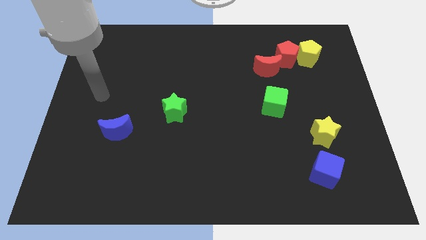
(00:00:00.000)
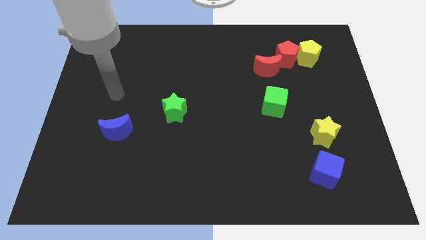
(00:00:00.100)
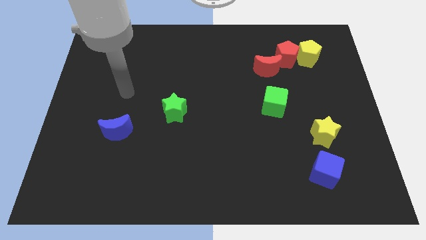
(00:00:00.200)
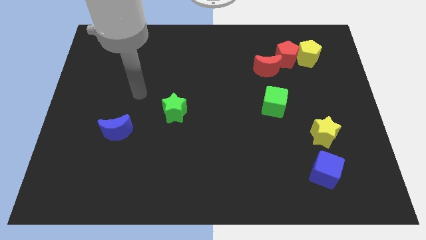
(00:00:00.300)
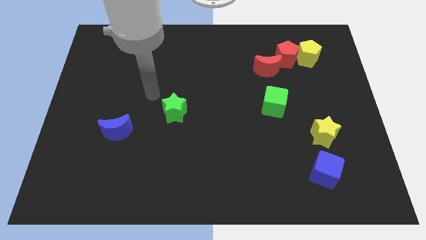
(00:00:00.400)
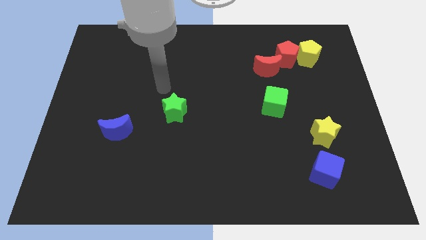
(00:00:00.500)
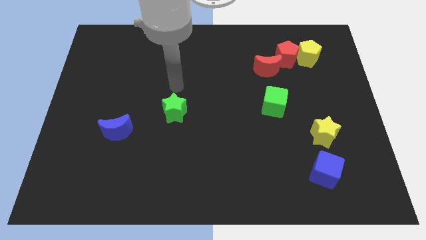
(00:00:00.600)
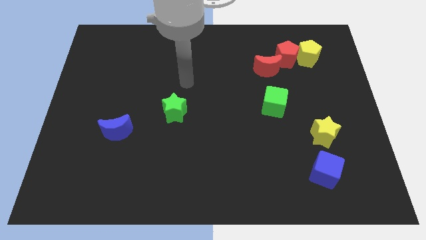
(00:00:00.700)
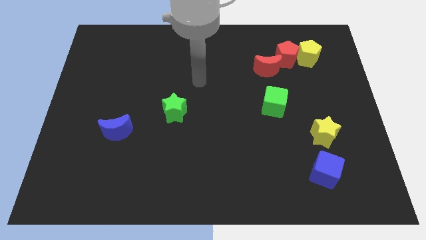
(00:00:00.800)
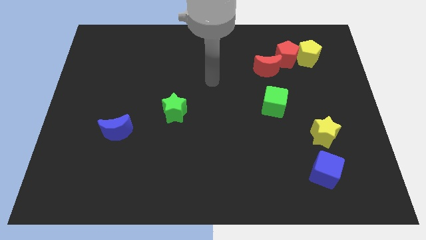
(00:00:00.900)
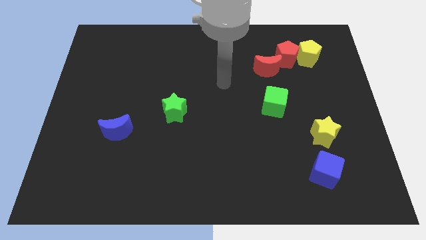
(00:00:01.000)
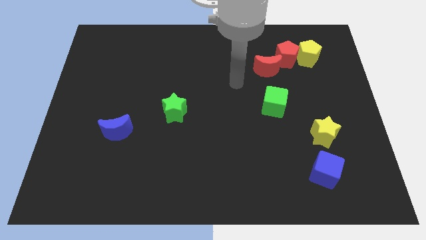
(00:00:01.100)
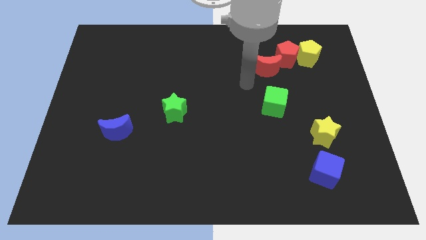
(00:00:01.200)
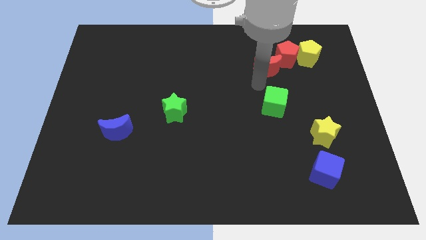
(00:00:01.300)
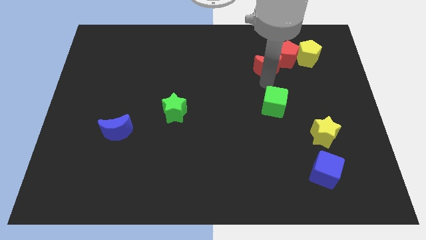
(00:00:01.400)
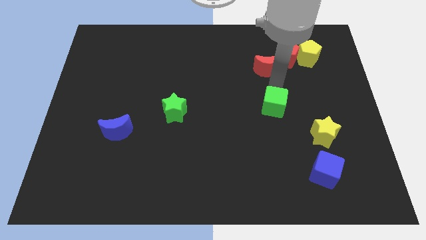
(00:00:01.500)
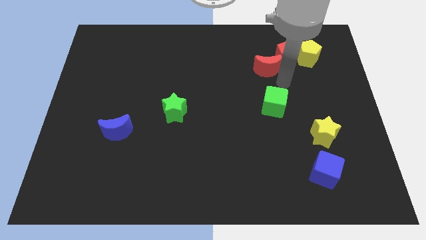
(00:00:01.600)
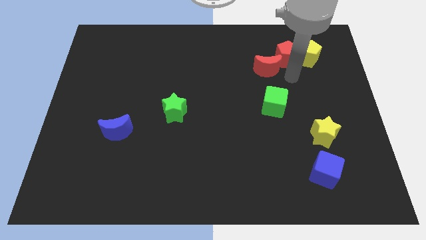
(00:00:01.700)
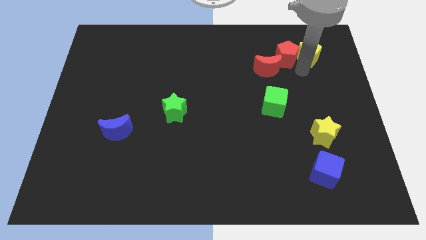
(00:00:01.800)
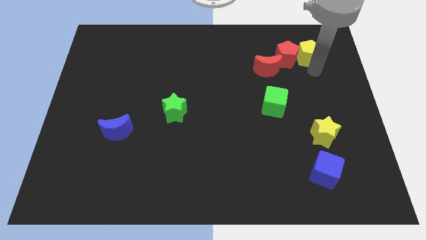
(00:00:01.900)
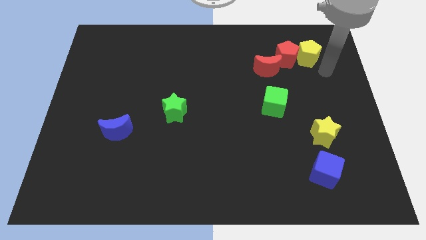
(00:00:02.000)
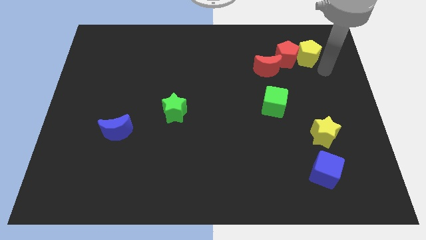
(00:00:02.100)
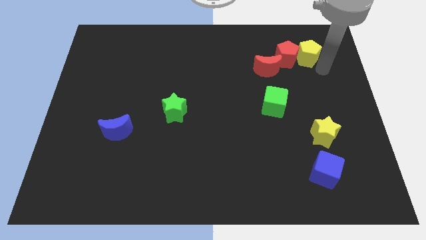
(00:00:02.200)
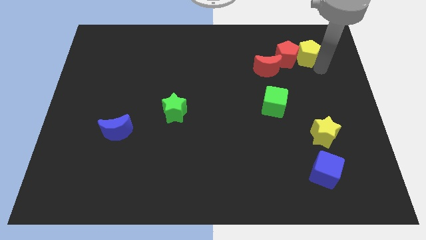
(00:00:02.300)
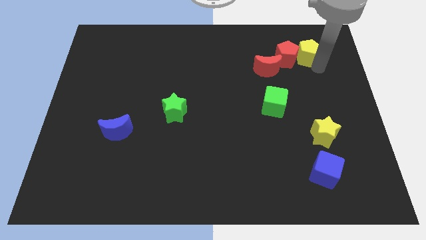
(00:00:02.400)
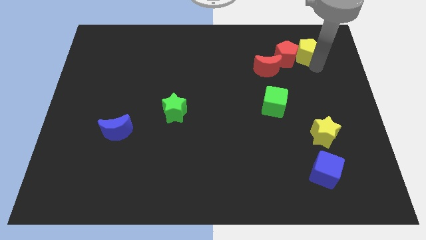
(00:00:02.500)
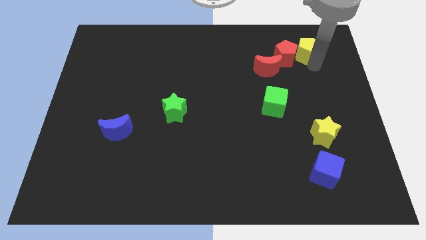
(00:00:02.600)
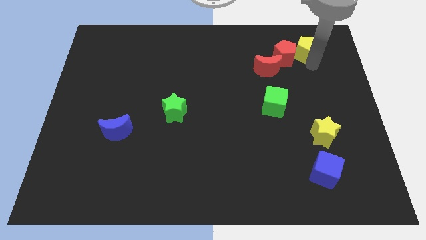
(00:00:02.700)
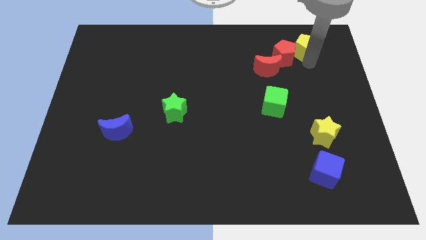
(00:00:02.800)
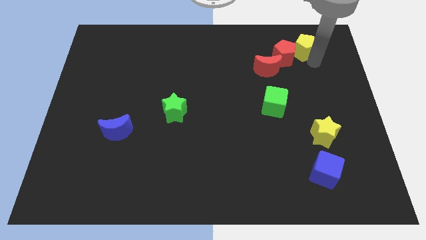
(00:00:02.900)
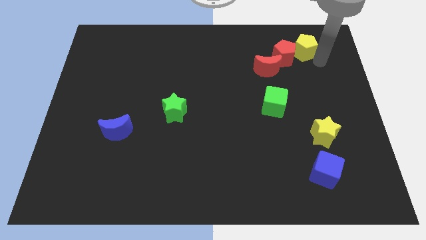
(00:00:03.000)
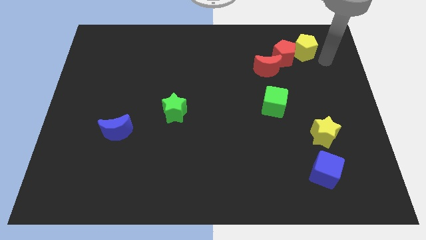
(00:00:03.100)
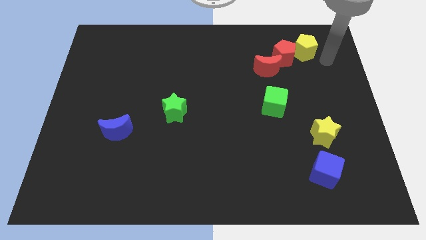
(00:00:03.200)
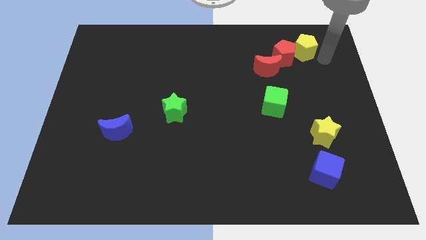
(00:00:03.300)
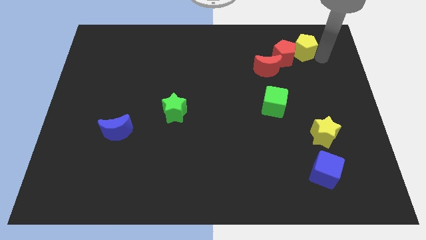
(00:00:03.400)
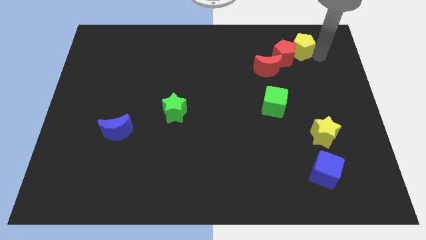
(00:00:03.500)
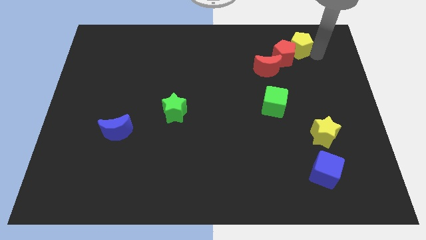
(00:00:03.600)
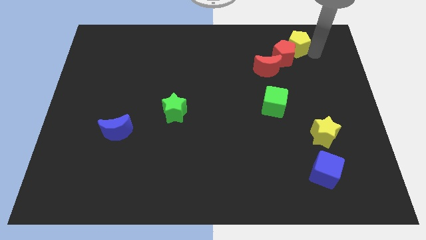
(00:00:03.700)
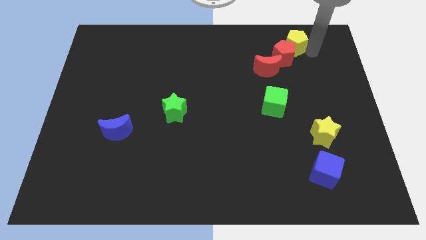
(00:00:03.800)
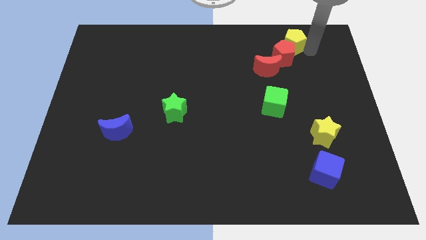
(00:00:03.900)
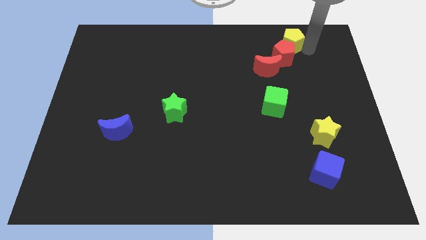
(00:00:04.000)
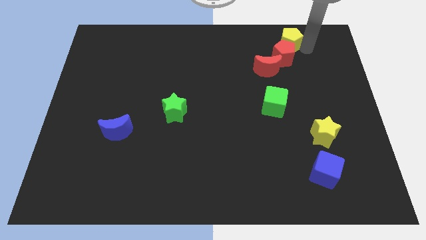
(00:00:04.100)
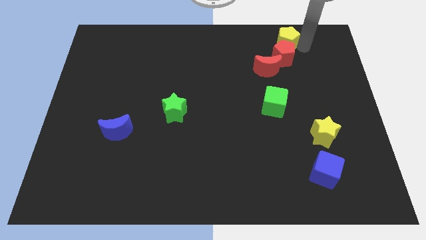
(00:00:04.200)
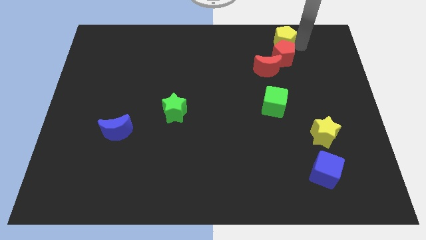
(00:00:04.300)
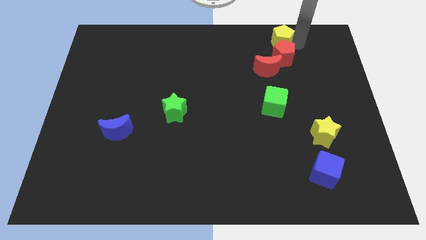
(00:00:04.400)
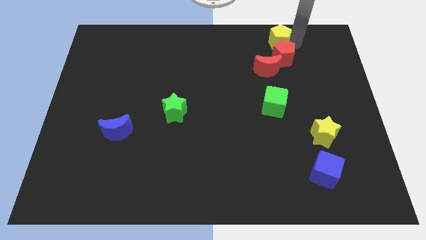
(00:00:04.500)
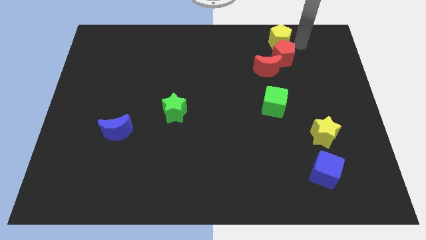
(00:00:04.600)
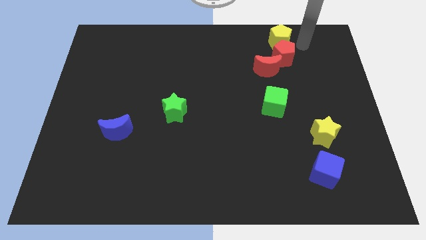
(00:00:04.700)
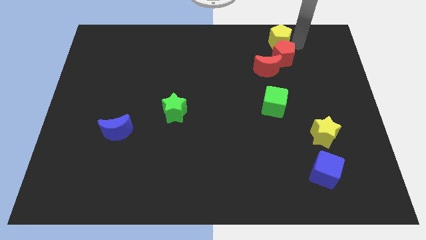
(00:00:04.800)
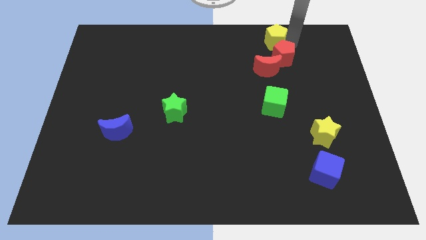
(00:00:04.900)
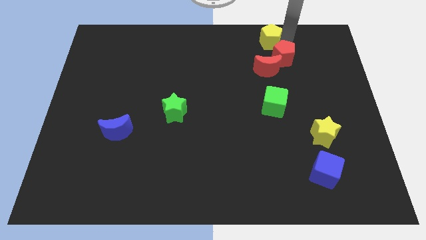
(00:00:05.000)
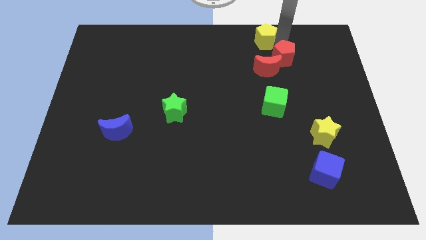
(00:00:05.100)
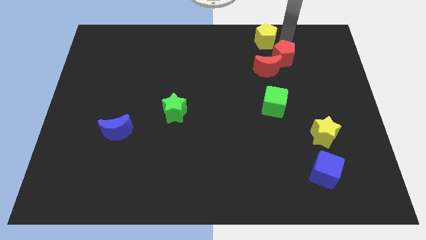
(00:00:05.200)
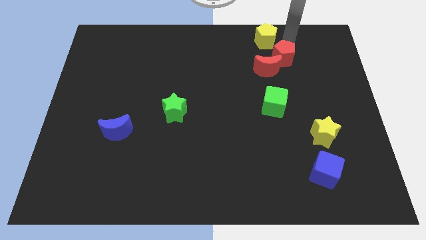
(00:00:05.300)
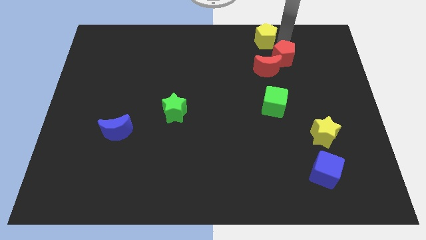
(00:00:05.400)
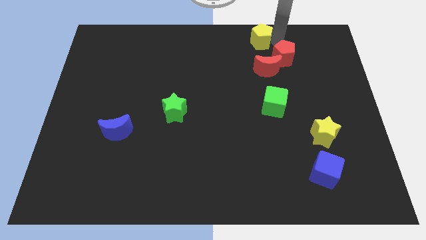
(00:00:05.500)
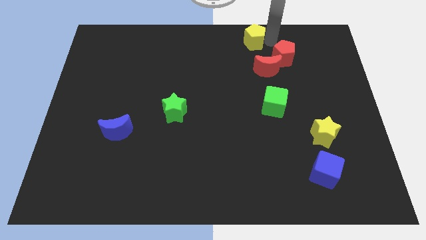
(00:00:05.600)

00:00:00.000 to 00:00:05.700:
move the yellow pentagon to the top side
